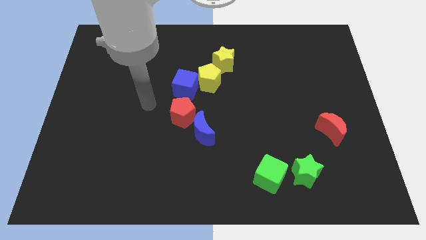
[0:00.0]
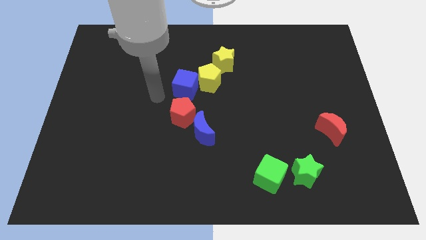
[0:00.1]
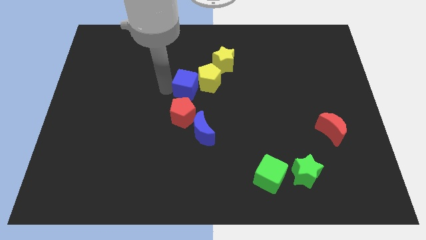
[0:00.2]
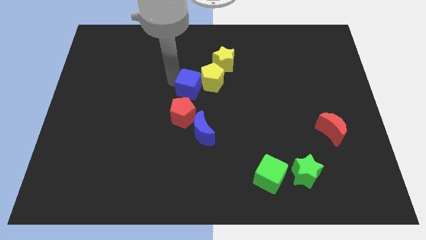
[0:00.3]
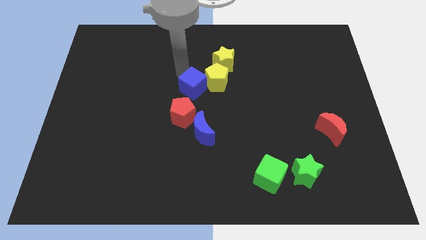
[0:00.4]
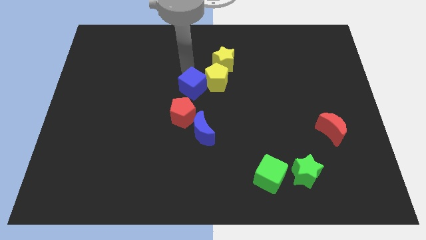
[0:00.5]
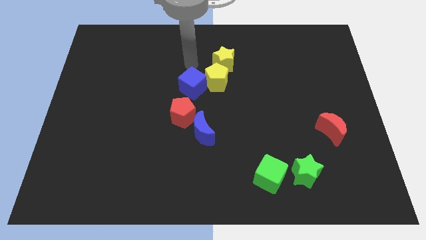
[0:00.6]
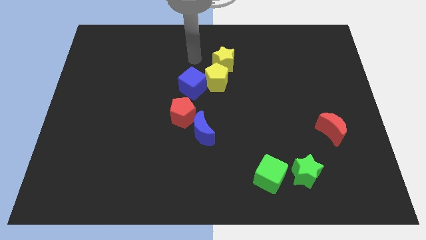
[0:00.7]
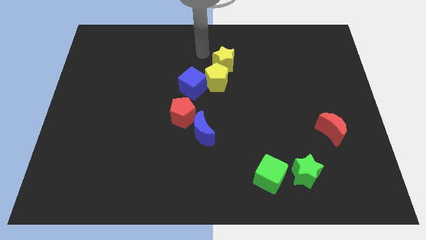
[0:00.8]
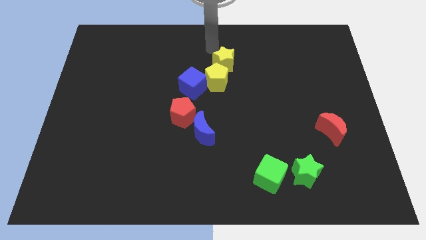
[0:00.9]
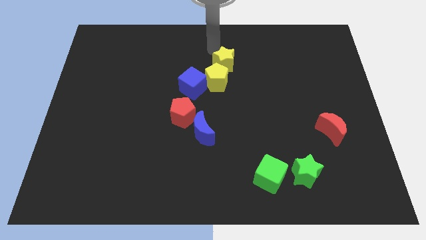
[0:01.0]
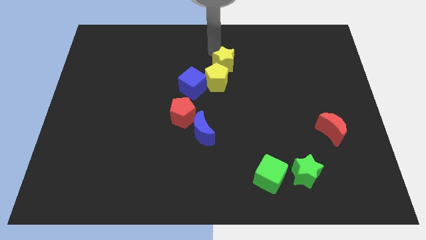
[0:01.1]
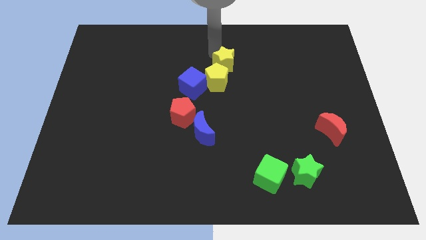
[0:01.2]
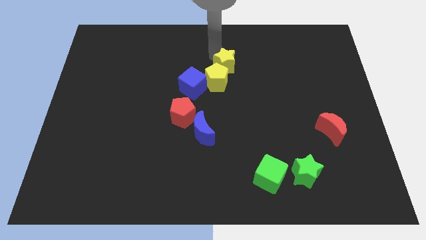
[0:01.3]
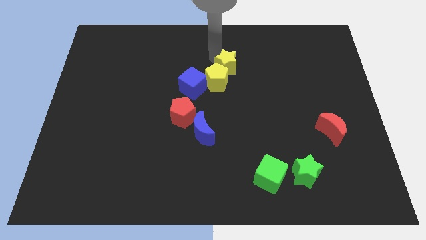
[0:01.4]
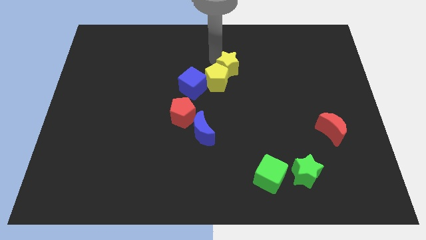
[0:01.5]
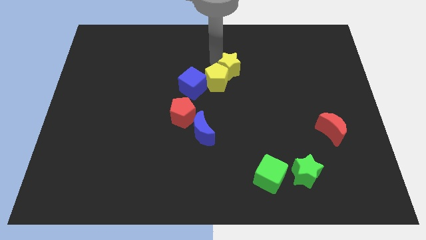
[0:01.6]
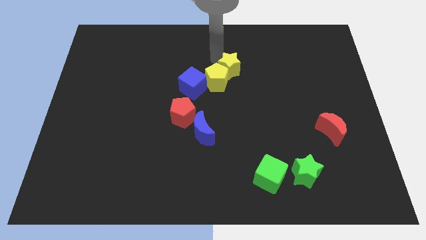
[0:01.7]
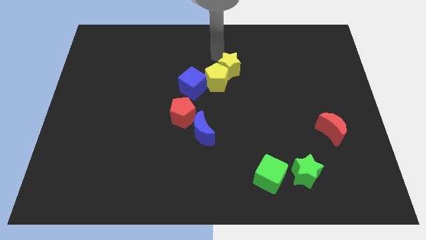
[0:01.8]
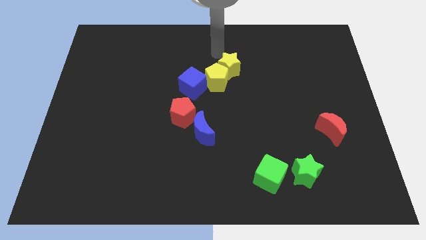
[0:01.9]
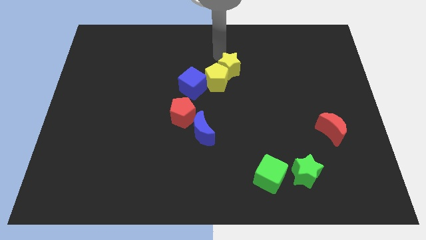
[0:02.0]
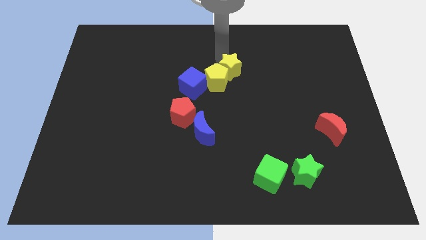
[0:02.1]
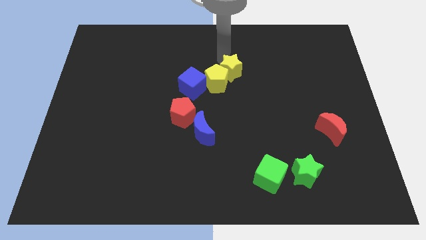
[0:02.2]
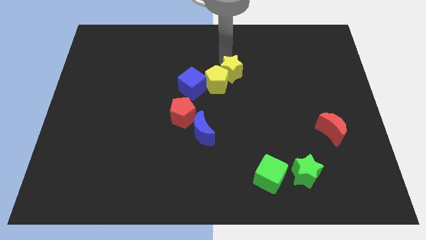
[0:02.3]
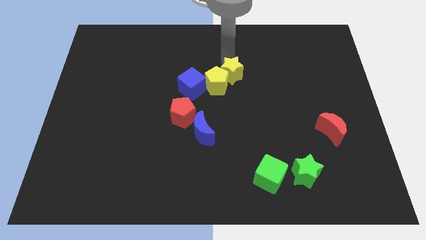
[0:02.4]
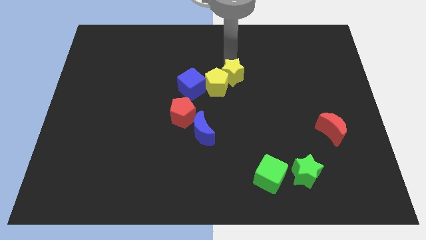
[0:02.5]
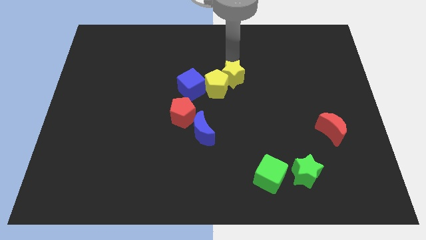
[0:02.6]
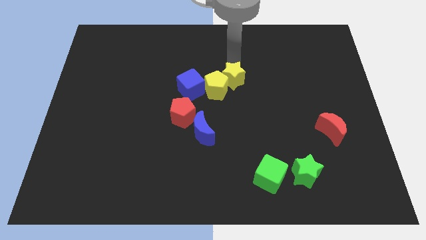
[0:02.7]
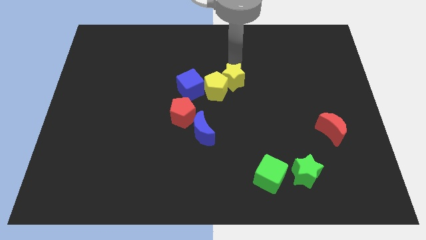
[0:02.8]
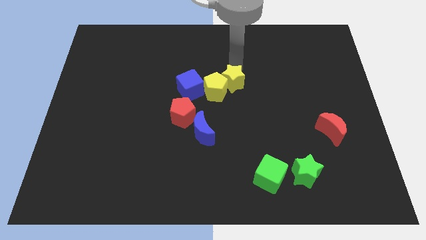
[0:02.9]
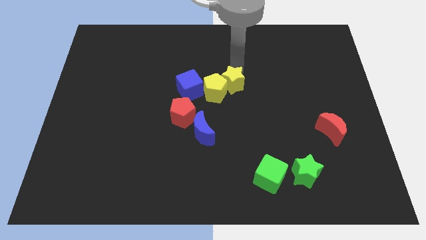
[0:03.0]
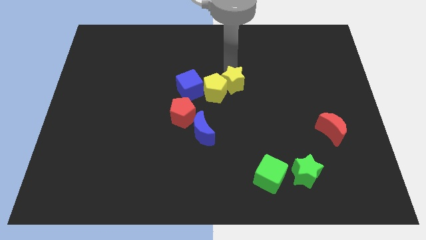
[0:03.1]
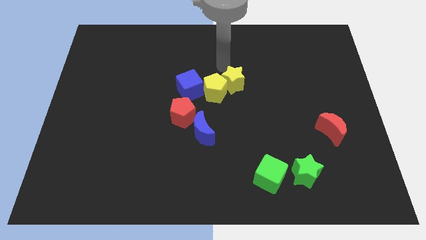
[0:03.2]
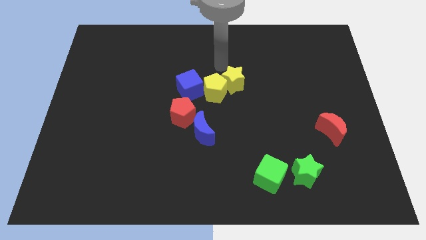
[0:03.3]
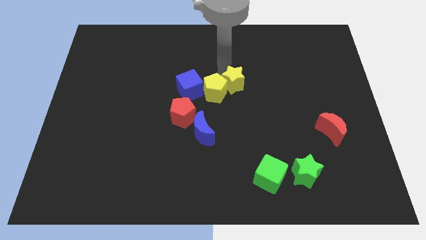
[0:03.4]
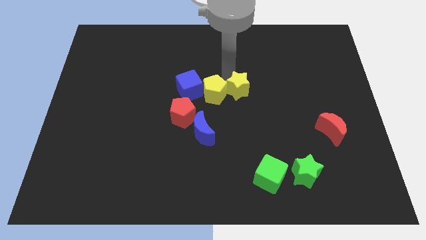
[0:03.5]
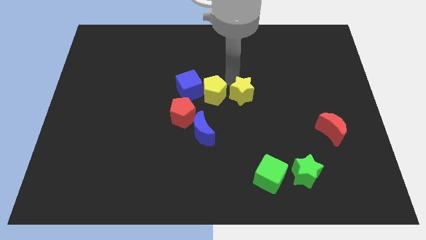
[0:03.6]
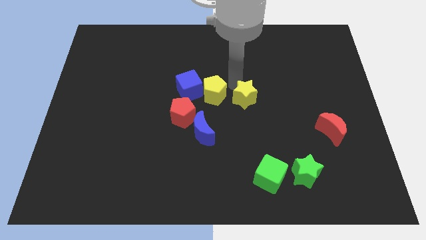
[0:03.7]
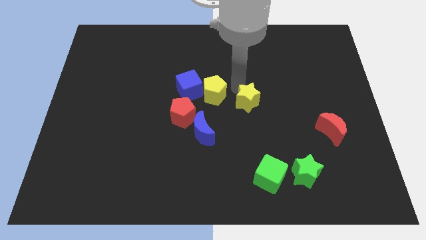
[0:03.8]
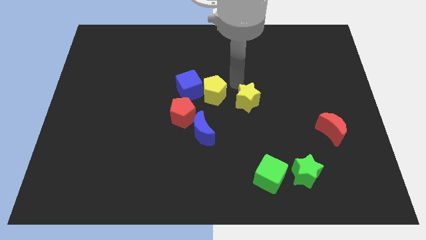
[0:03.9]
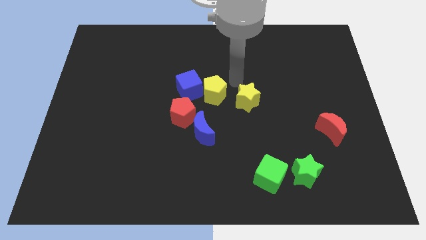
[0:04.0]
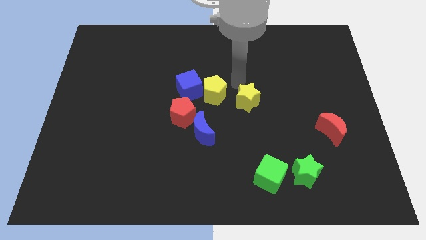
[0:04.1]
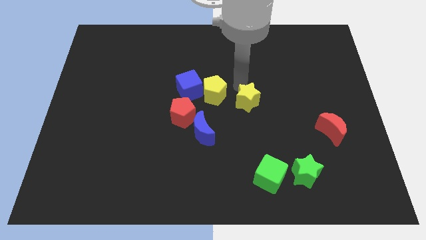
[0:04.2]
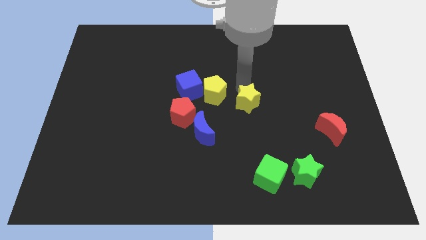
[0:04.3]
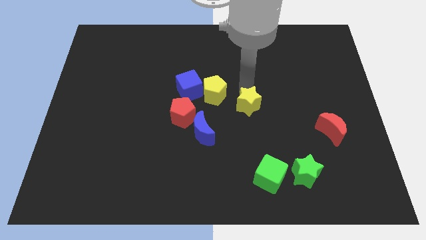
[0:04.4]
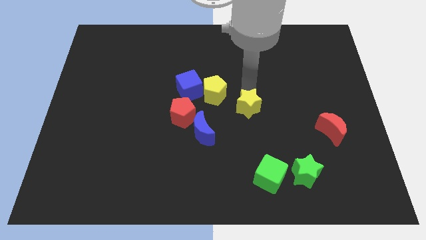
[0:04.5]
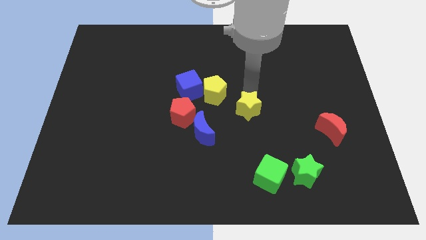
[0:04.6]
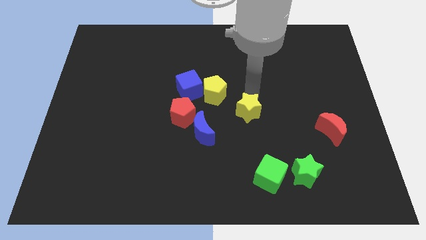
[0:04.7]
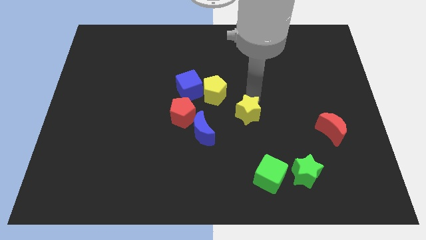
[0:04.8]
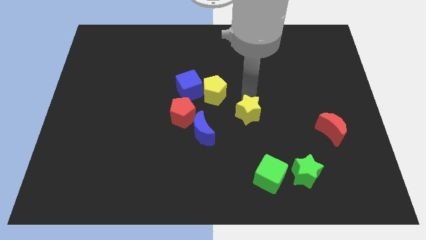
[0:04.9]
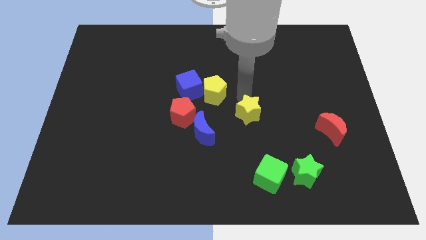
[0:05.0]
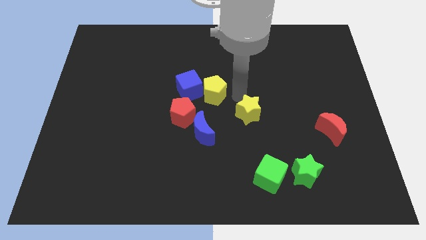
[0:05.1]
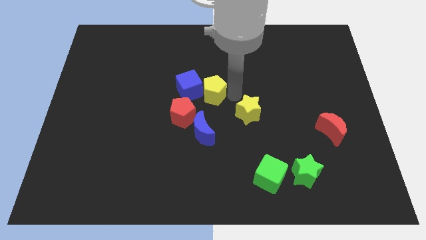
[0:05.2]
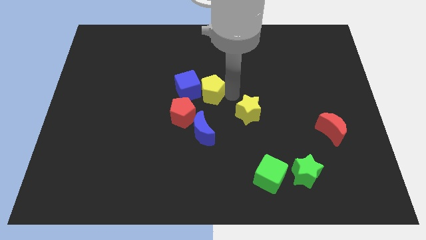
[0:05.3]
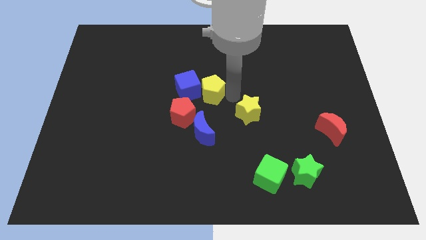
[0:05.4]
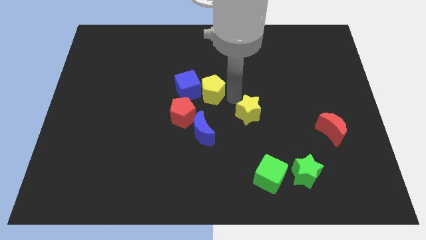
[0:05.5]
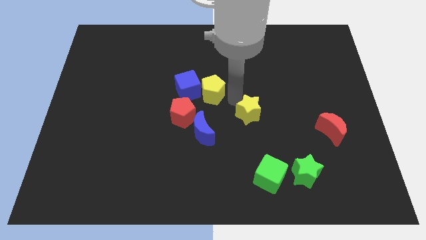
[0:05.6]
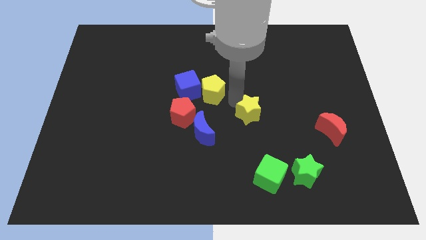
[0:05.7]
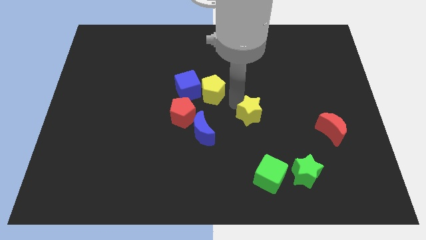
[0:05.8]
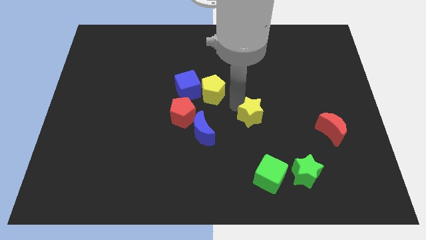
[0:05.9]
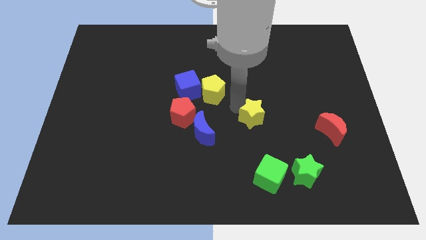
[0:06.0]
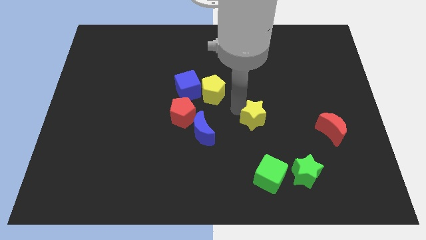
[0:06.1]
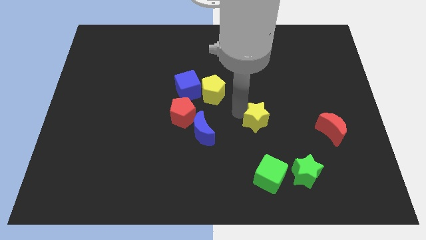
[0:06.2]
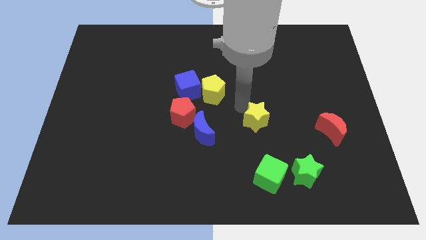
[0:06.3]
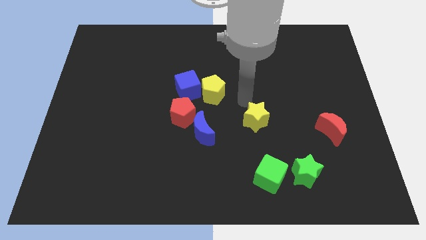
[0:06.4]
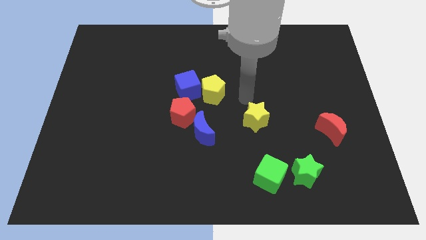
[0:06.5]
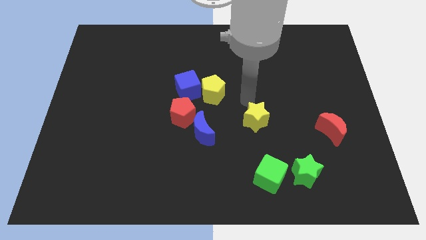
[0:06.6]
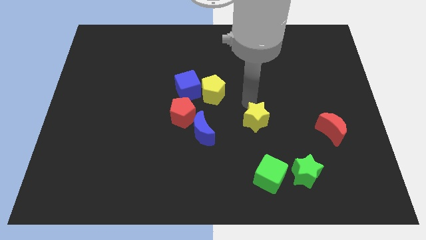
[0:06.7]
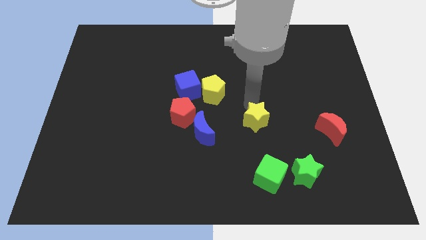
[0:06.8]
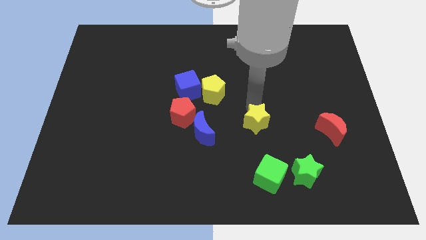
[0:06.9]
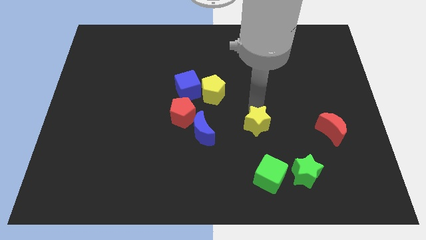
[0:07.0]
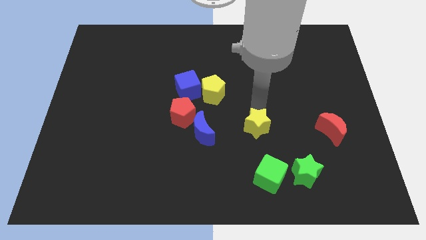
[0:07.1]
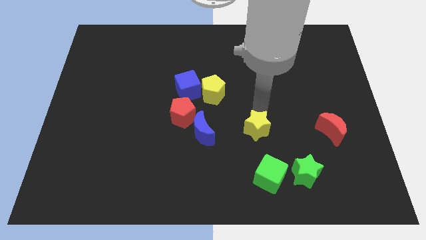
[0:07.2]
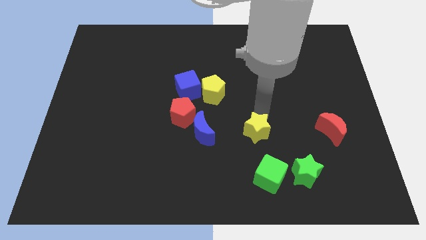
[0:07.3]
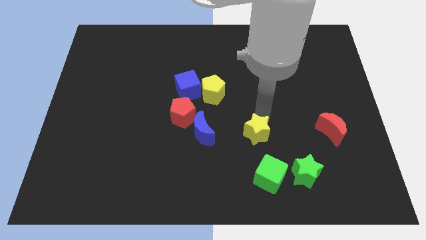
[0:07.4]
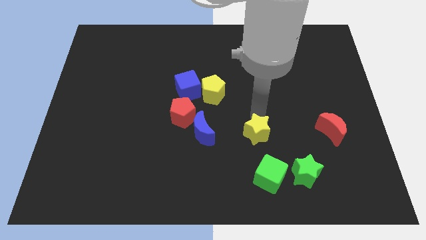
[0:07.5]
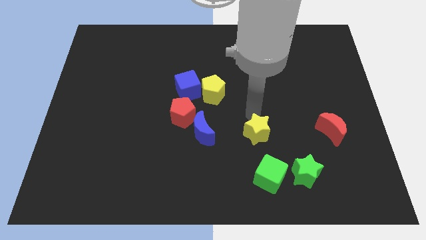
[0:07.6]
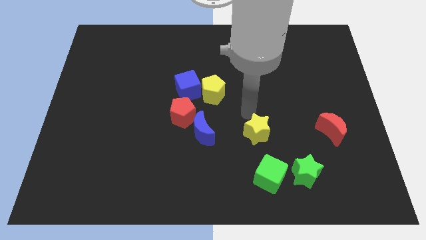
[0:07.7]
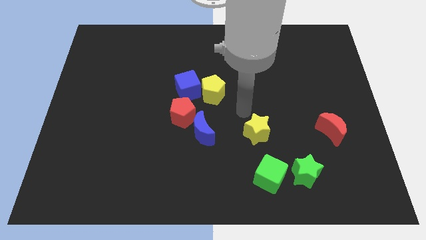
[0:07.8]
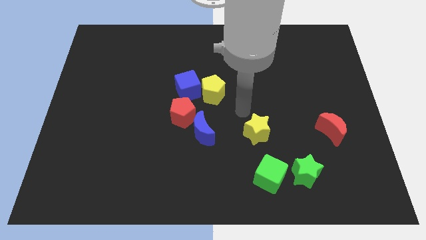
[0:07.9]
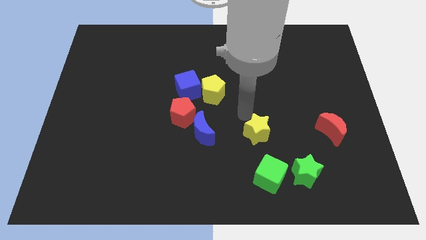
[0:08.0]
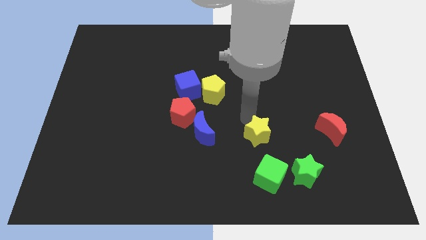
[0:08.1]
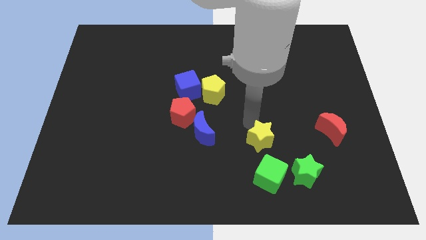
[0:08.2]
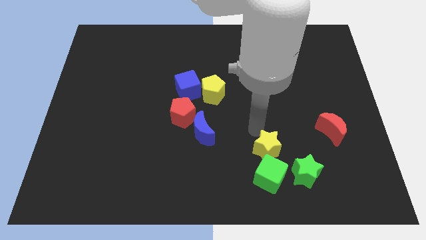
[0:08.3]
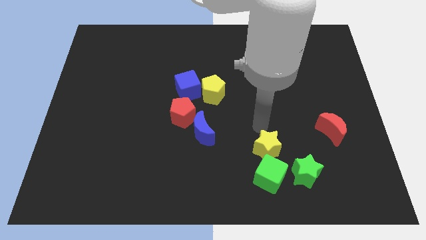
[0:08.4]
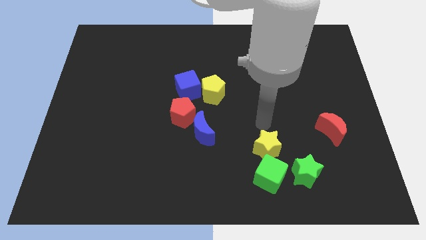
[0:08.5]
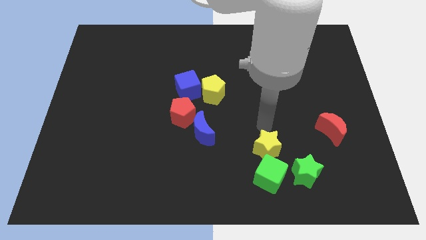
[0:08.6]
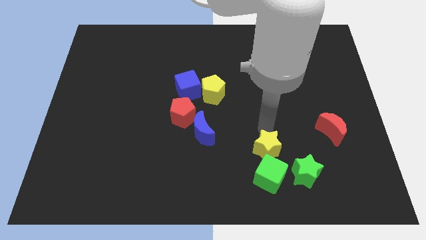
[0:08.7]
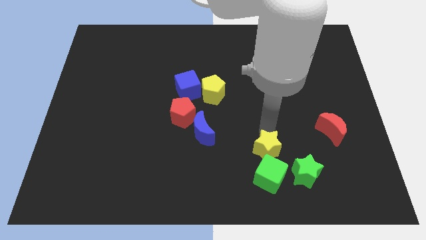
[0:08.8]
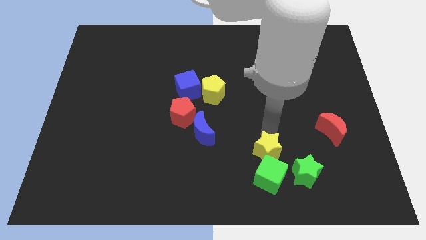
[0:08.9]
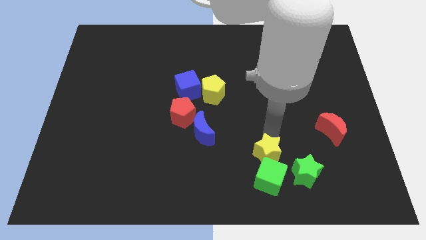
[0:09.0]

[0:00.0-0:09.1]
slide the yellow star towards the green cube
